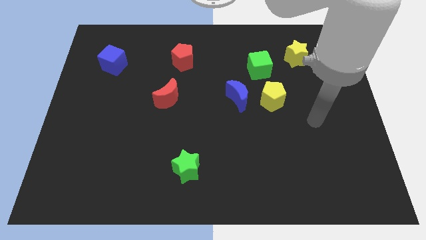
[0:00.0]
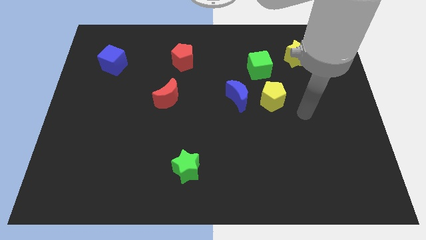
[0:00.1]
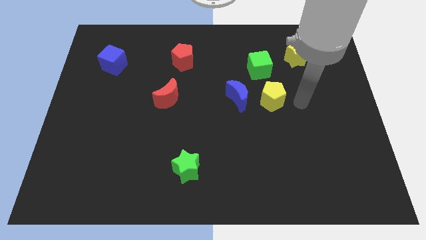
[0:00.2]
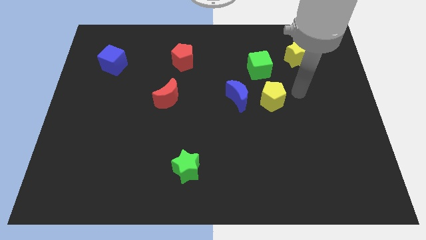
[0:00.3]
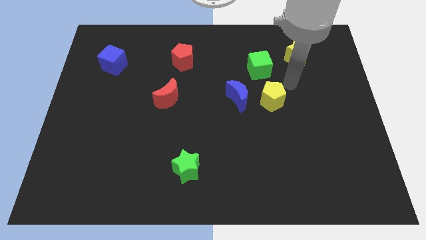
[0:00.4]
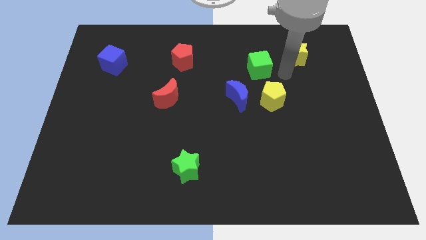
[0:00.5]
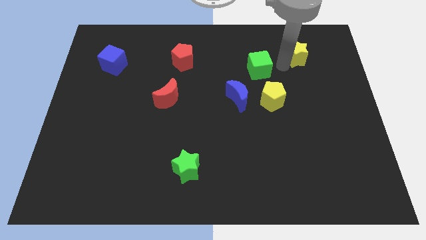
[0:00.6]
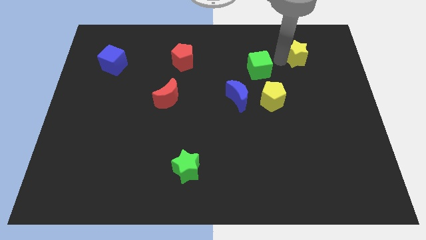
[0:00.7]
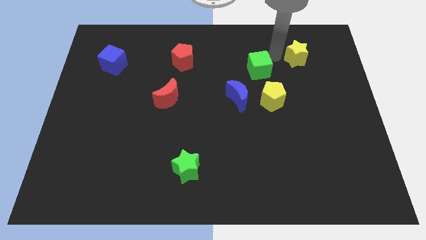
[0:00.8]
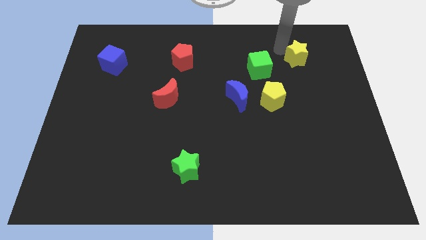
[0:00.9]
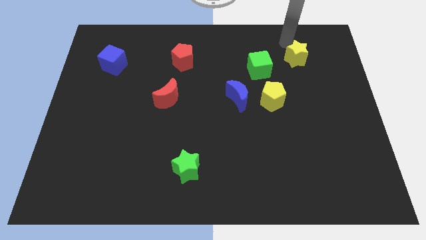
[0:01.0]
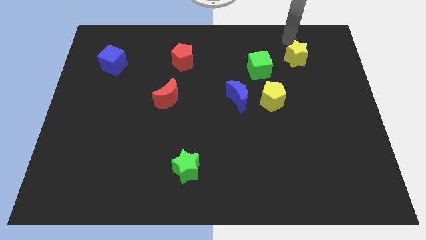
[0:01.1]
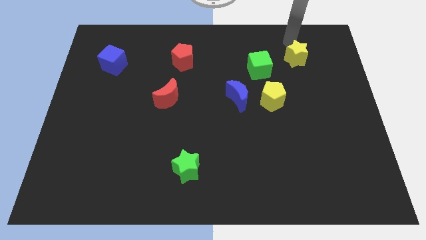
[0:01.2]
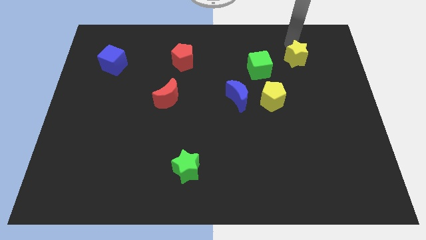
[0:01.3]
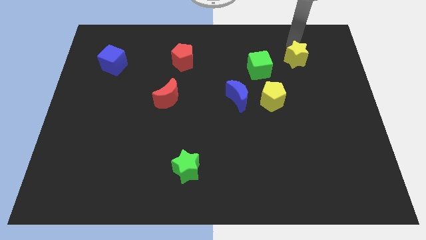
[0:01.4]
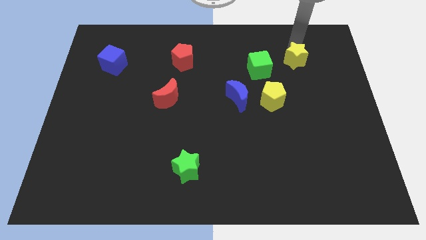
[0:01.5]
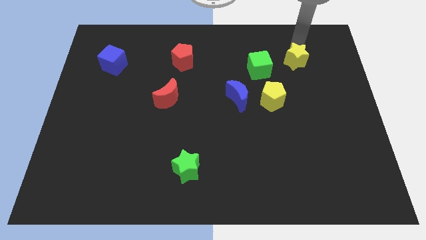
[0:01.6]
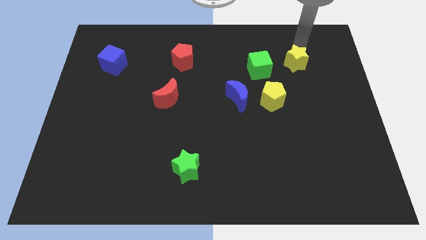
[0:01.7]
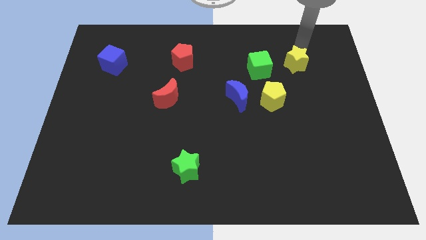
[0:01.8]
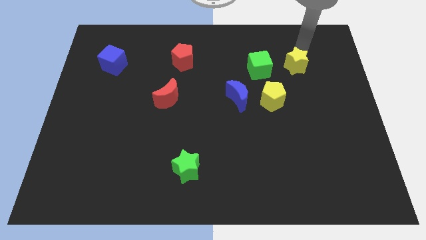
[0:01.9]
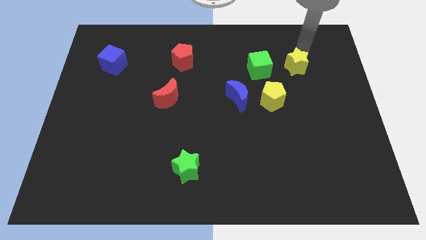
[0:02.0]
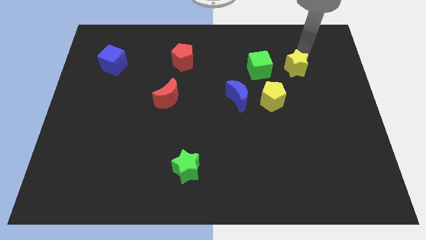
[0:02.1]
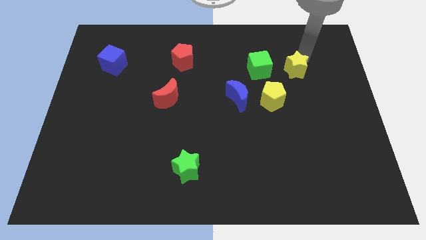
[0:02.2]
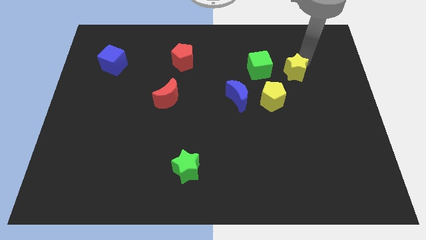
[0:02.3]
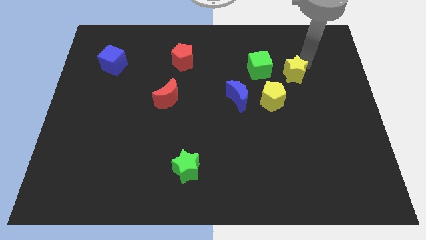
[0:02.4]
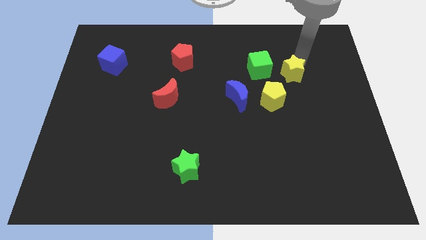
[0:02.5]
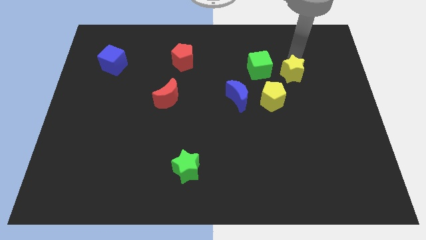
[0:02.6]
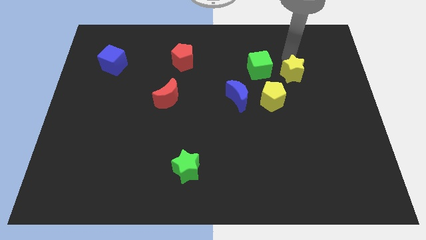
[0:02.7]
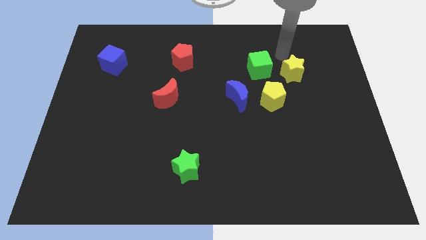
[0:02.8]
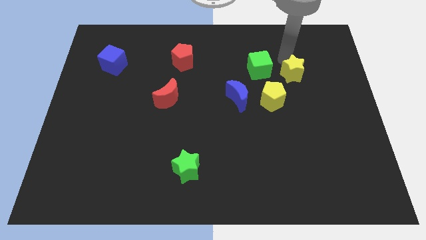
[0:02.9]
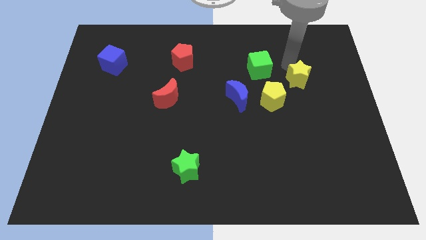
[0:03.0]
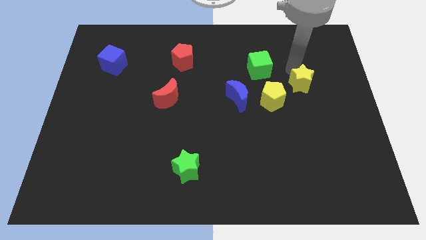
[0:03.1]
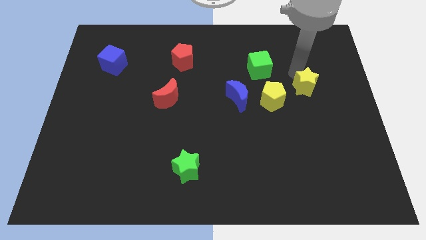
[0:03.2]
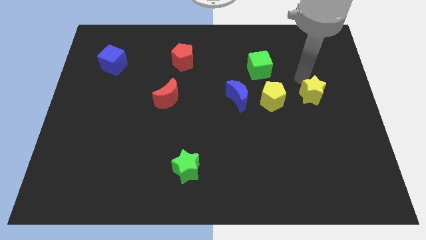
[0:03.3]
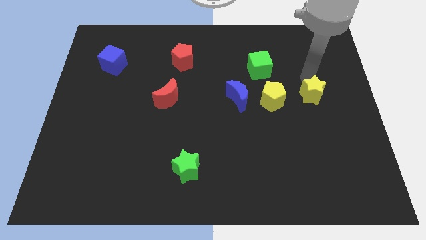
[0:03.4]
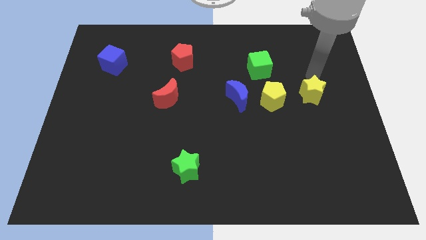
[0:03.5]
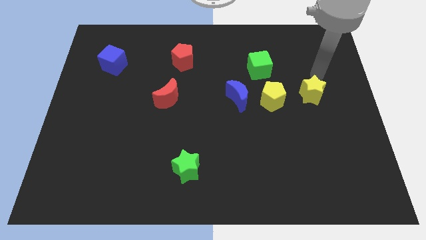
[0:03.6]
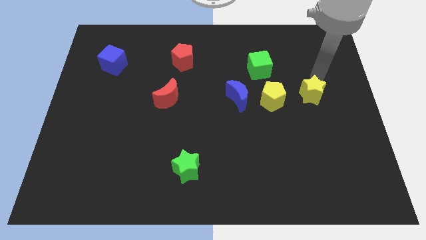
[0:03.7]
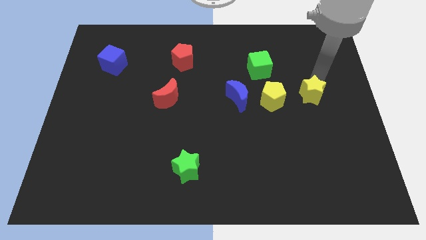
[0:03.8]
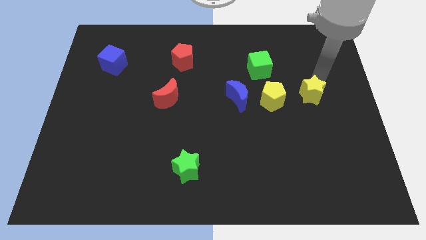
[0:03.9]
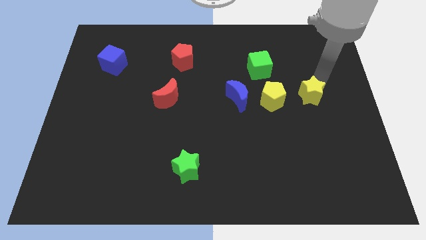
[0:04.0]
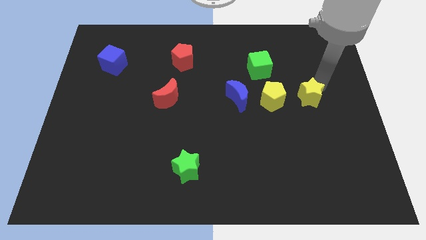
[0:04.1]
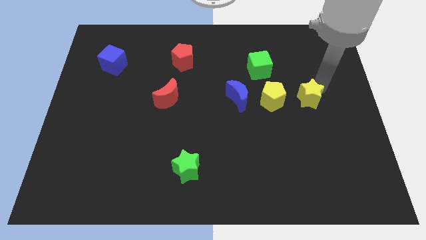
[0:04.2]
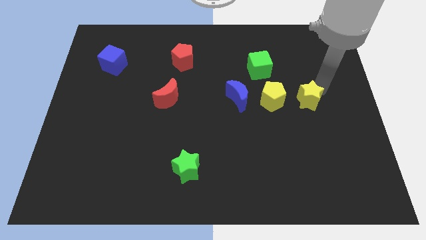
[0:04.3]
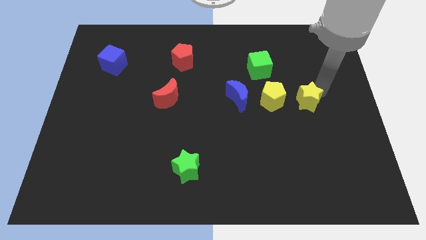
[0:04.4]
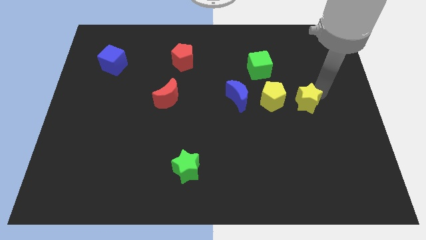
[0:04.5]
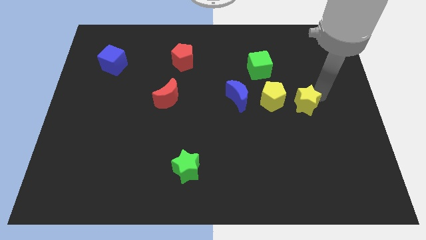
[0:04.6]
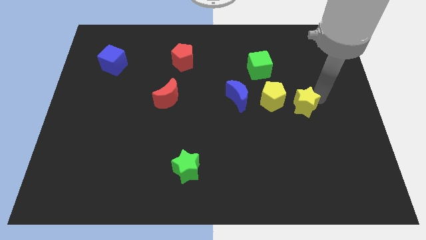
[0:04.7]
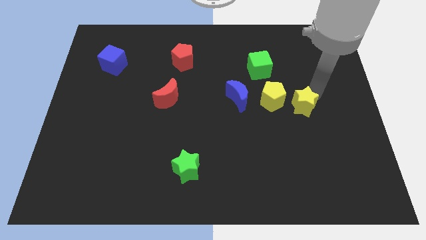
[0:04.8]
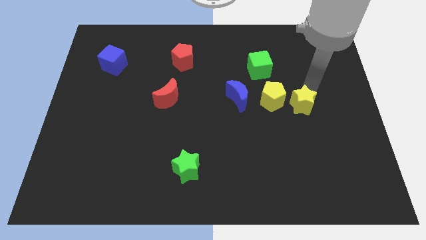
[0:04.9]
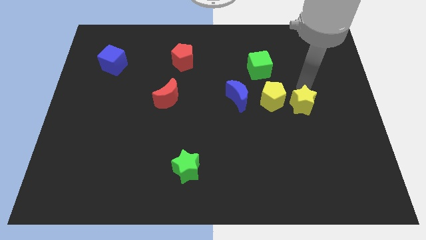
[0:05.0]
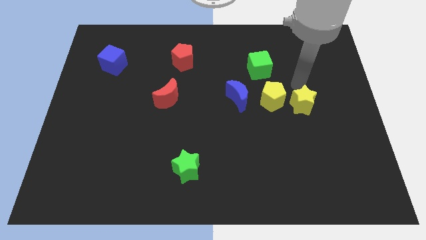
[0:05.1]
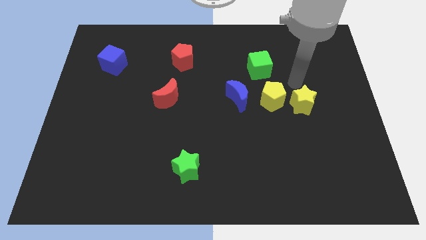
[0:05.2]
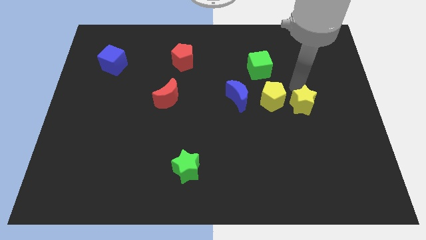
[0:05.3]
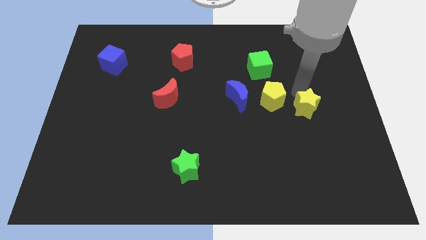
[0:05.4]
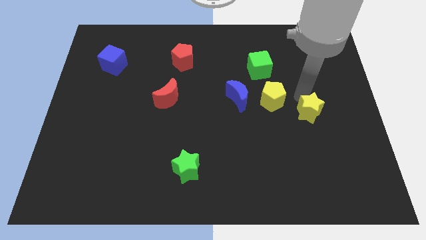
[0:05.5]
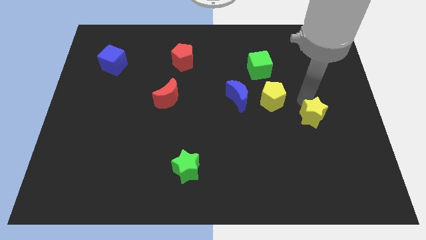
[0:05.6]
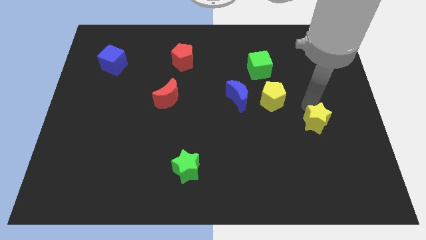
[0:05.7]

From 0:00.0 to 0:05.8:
move the yellow star downwards

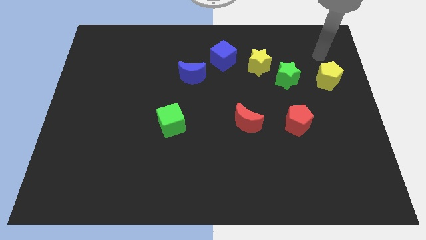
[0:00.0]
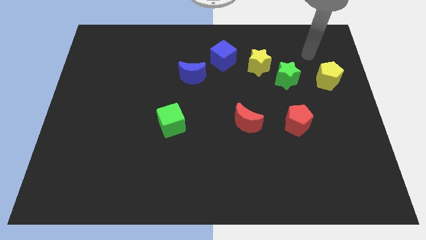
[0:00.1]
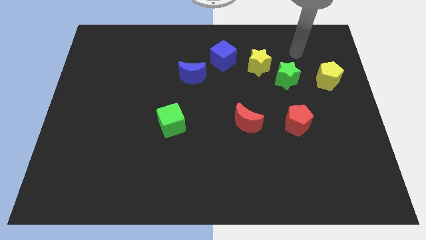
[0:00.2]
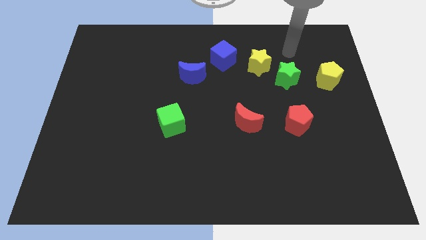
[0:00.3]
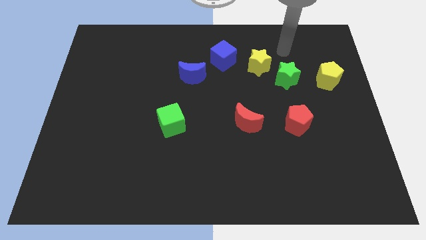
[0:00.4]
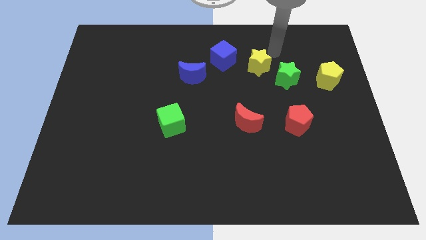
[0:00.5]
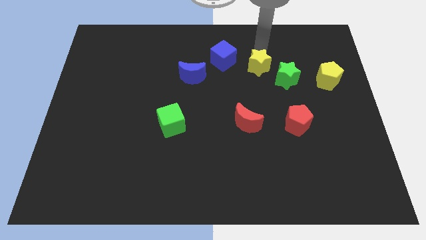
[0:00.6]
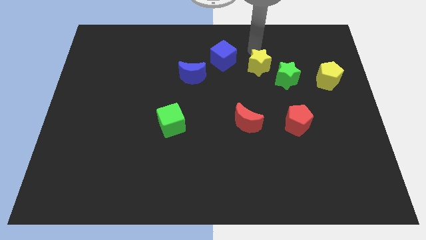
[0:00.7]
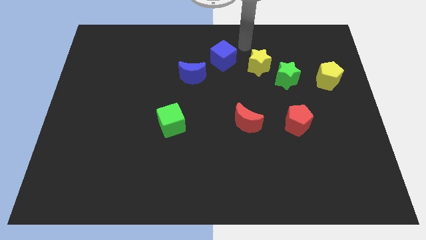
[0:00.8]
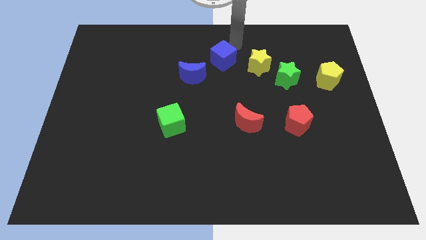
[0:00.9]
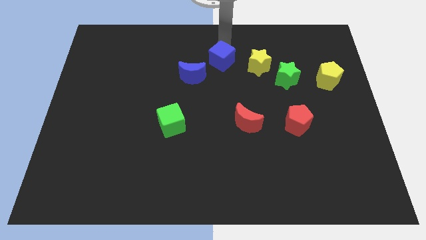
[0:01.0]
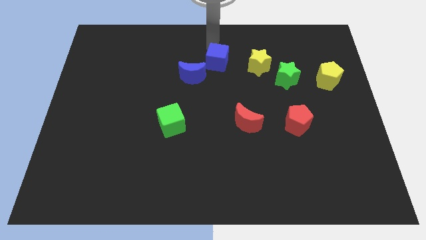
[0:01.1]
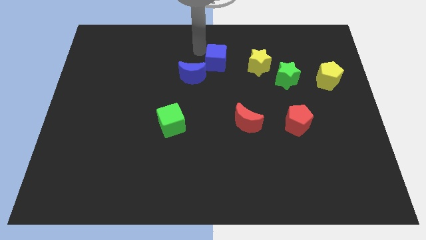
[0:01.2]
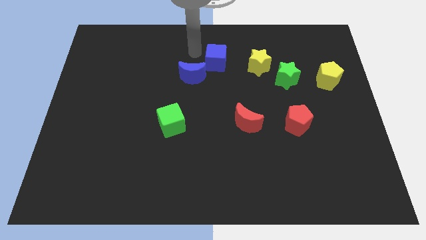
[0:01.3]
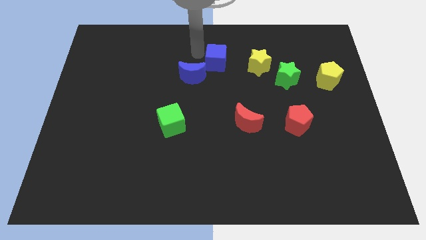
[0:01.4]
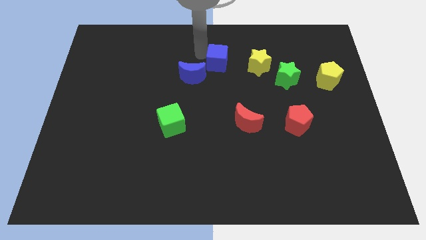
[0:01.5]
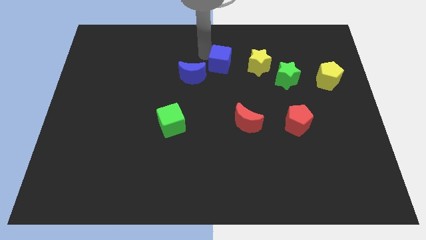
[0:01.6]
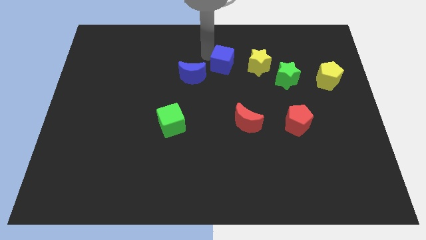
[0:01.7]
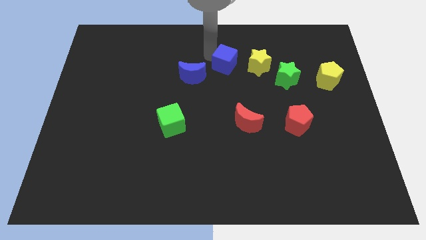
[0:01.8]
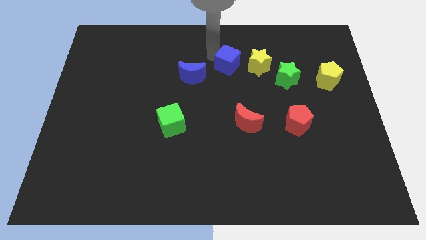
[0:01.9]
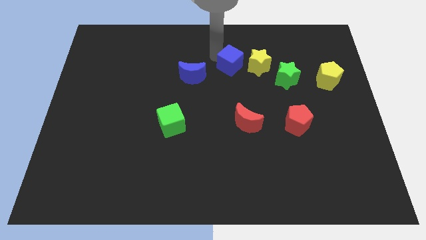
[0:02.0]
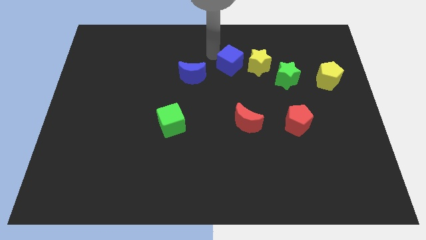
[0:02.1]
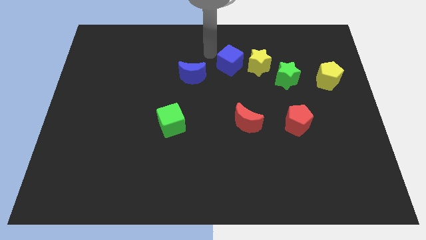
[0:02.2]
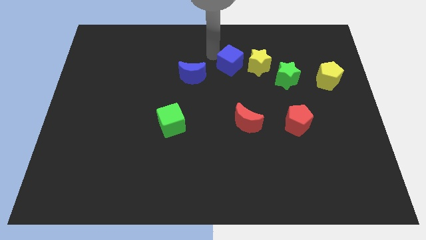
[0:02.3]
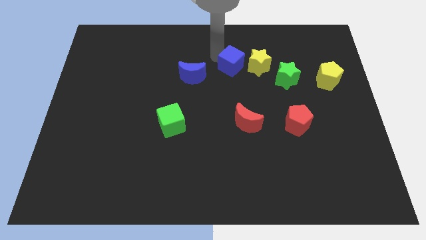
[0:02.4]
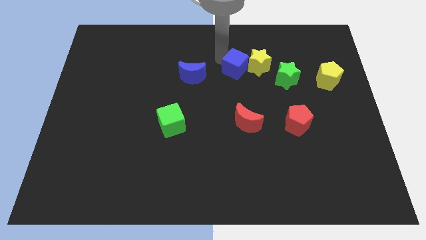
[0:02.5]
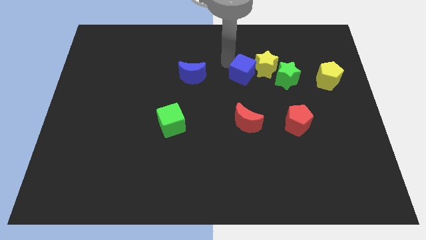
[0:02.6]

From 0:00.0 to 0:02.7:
slide the blue cube a little diagonally down and to the right
